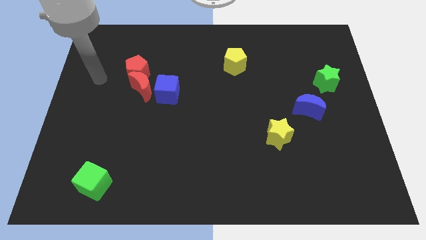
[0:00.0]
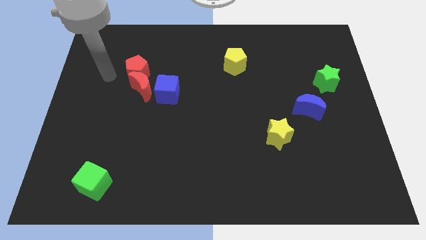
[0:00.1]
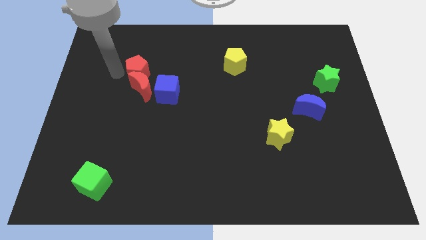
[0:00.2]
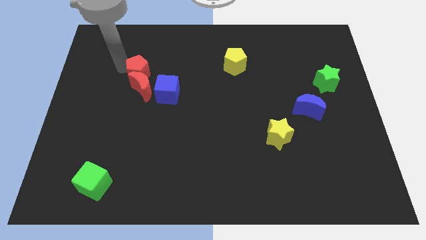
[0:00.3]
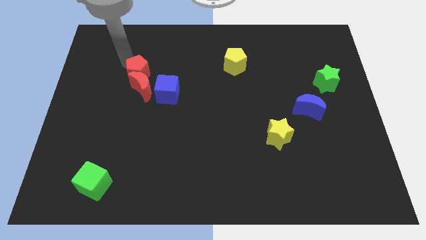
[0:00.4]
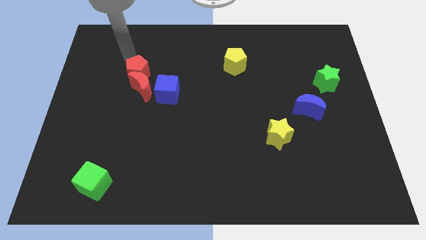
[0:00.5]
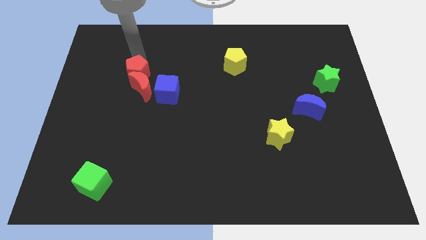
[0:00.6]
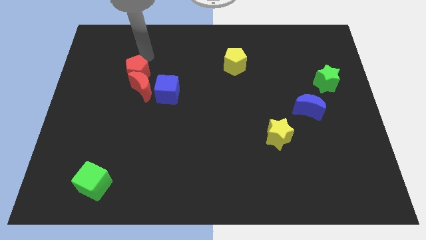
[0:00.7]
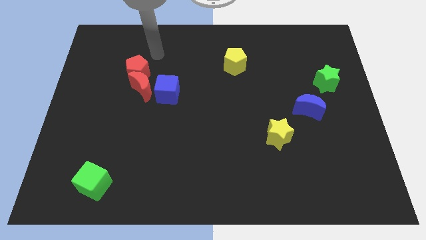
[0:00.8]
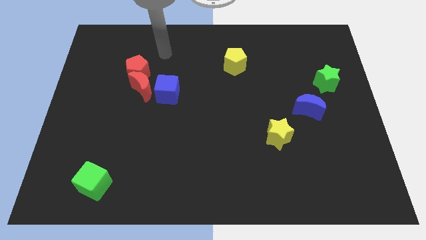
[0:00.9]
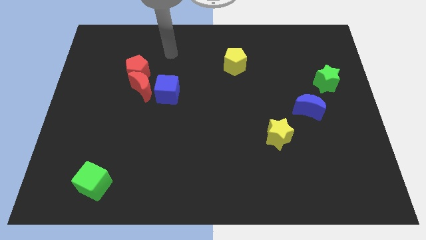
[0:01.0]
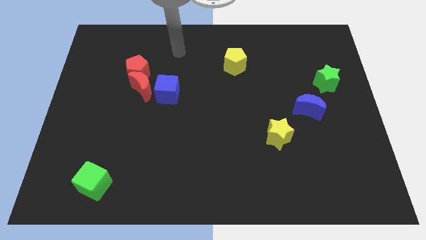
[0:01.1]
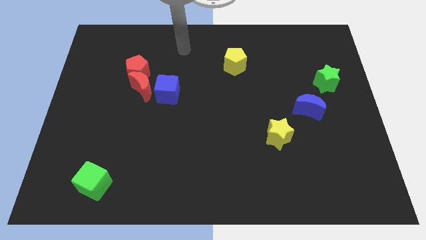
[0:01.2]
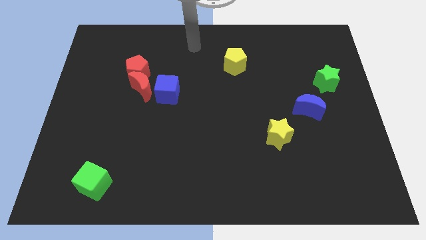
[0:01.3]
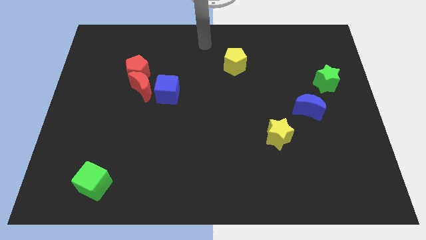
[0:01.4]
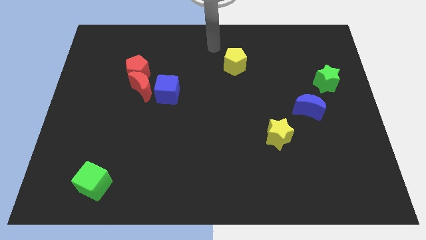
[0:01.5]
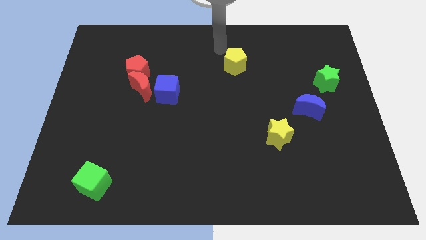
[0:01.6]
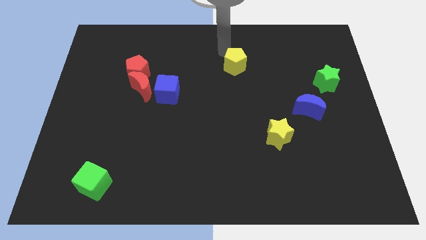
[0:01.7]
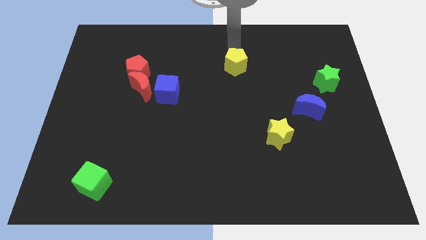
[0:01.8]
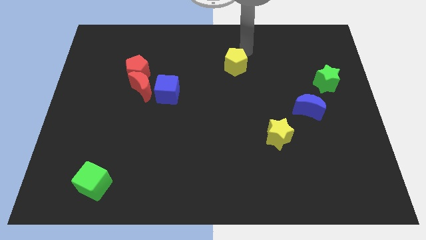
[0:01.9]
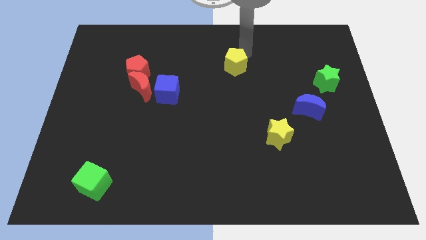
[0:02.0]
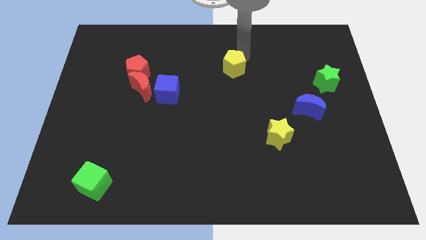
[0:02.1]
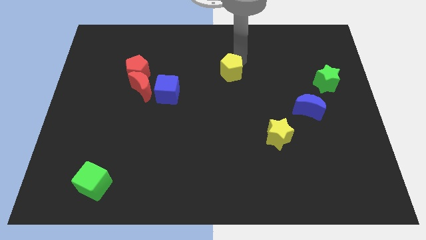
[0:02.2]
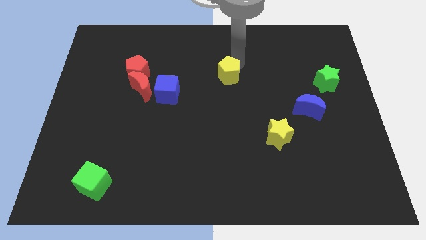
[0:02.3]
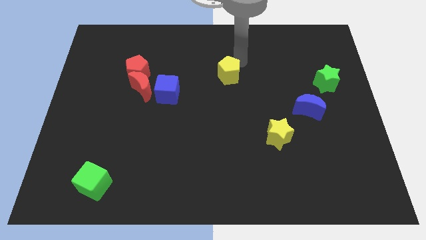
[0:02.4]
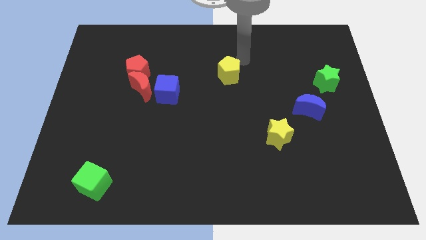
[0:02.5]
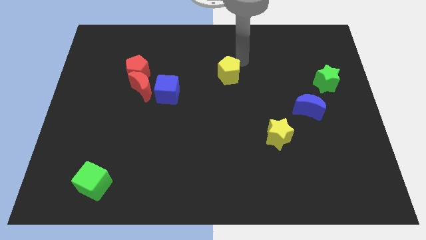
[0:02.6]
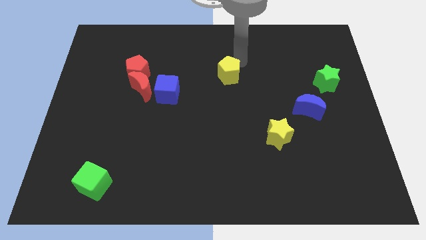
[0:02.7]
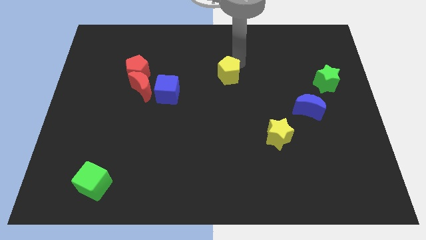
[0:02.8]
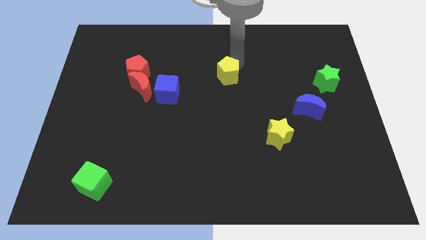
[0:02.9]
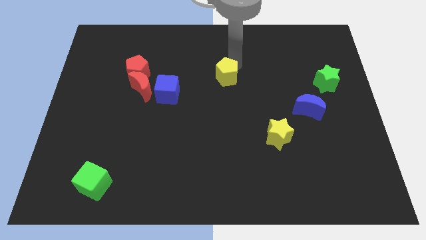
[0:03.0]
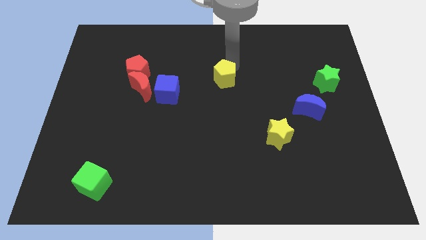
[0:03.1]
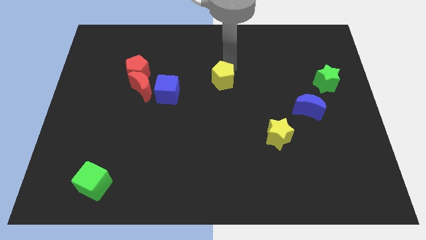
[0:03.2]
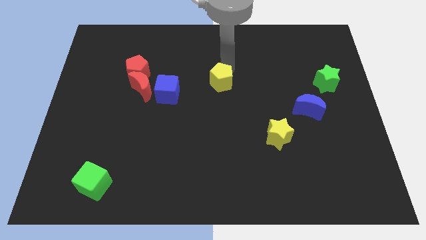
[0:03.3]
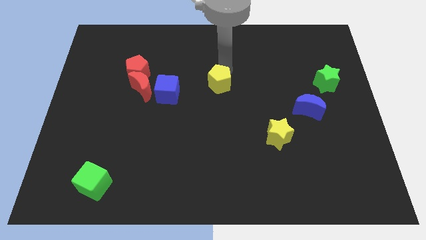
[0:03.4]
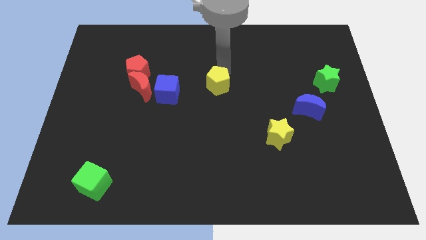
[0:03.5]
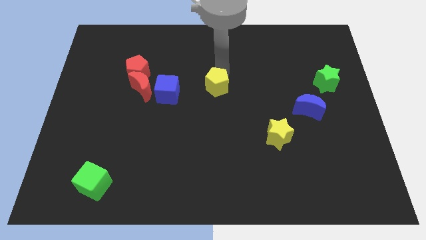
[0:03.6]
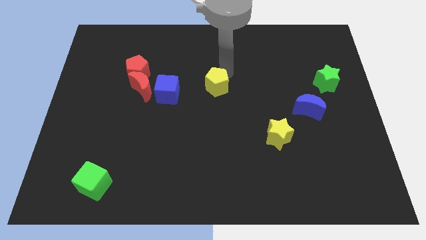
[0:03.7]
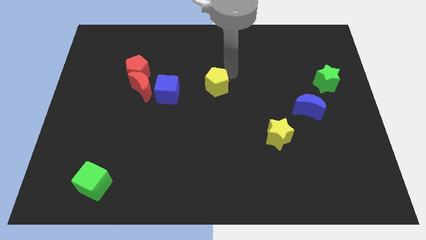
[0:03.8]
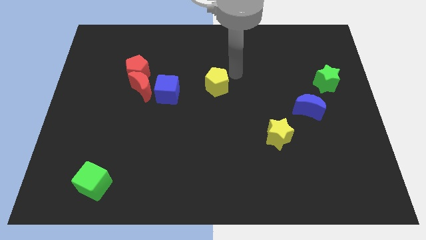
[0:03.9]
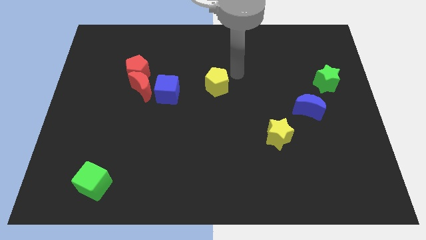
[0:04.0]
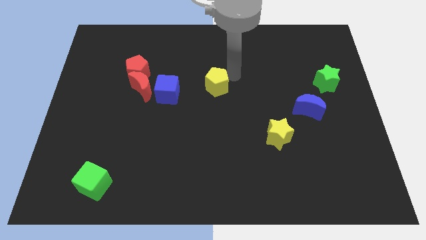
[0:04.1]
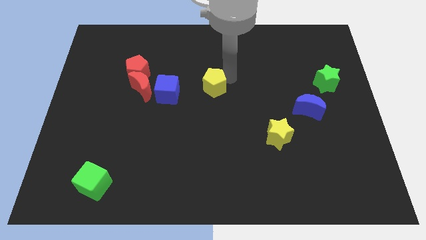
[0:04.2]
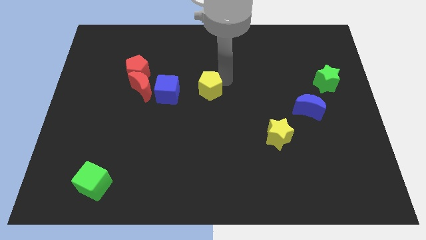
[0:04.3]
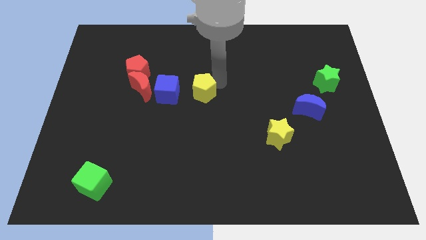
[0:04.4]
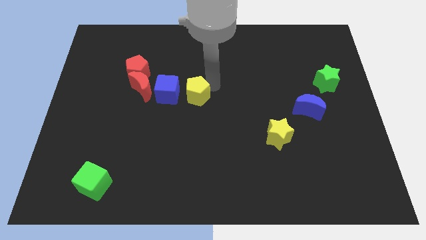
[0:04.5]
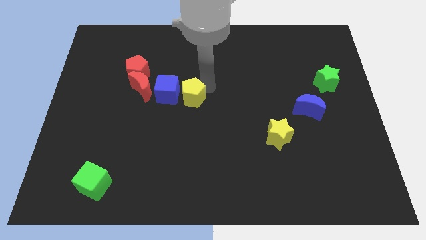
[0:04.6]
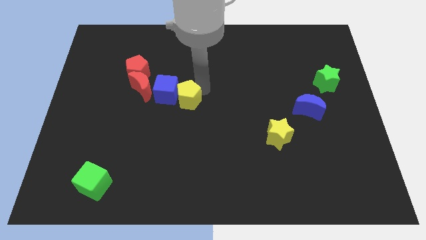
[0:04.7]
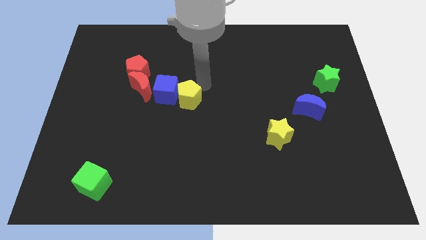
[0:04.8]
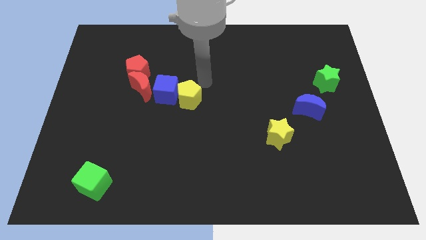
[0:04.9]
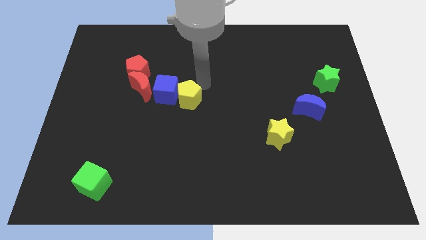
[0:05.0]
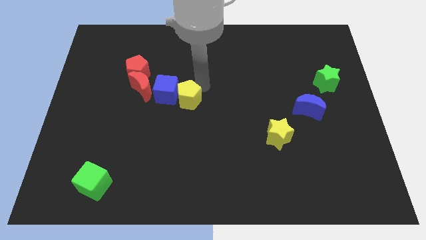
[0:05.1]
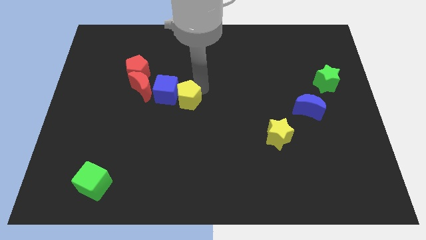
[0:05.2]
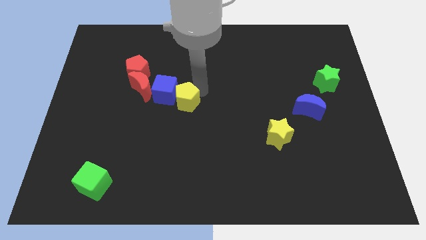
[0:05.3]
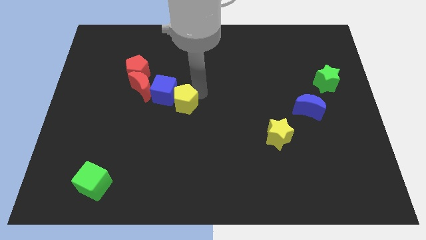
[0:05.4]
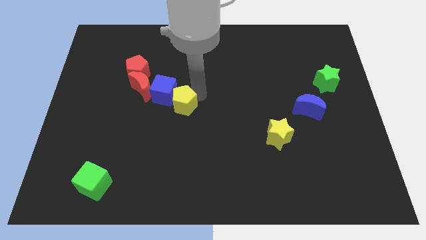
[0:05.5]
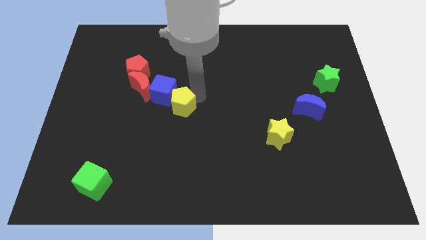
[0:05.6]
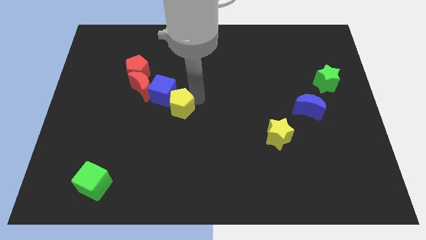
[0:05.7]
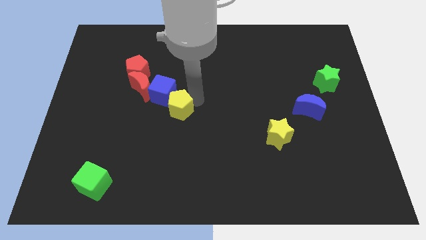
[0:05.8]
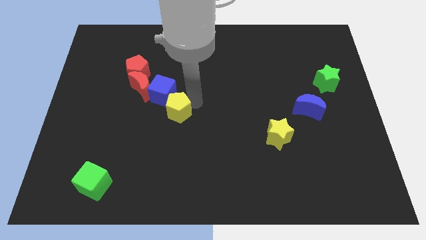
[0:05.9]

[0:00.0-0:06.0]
move the yellow pentagon downwards and left

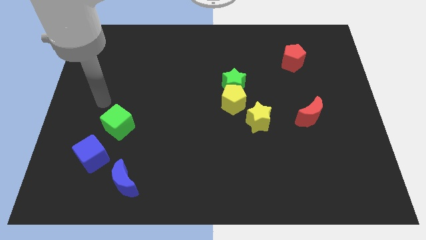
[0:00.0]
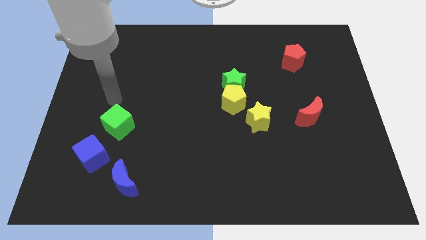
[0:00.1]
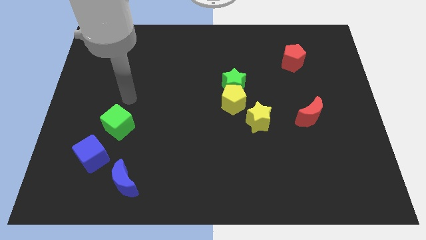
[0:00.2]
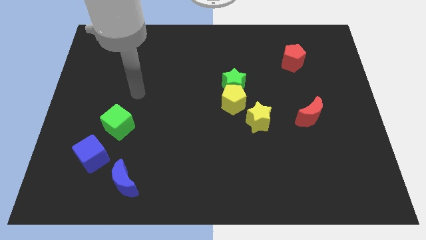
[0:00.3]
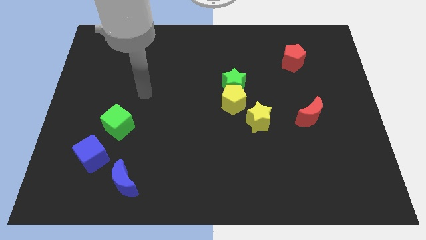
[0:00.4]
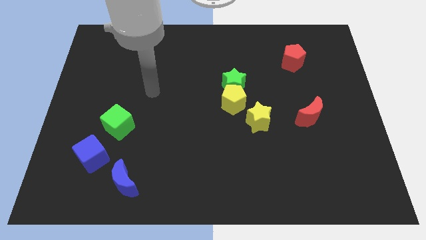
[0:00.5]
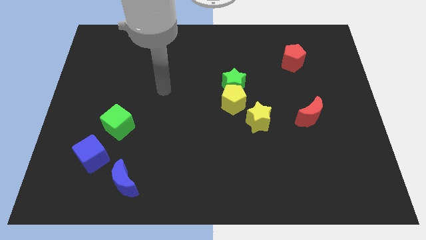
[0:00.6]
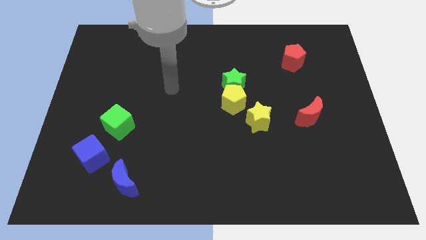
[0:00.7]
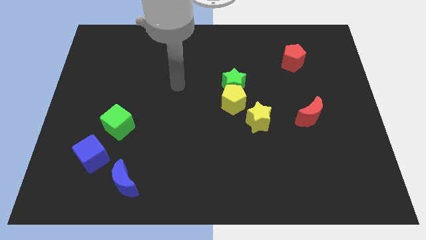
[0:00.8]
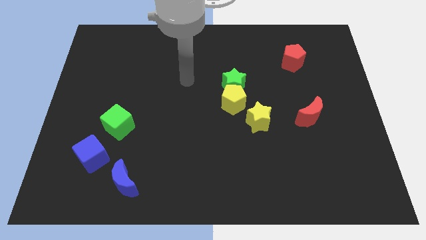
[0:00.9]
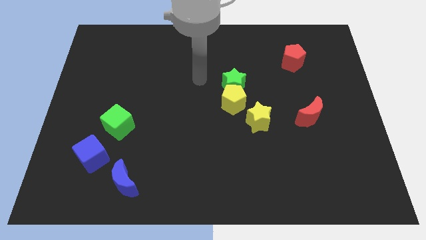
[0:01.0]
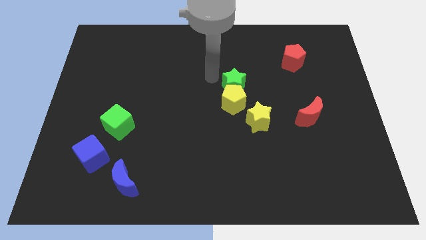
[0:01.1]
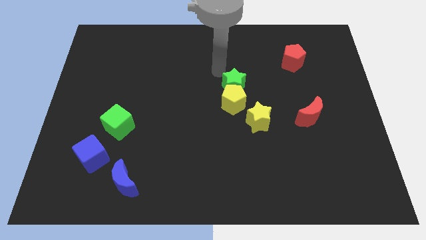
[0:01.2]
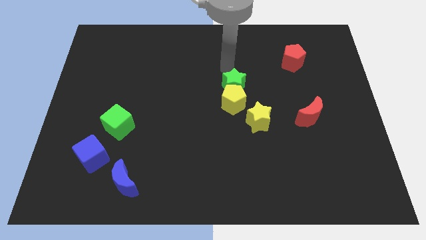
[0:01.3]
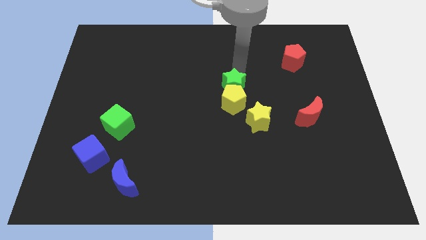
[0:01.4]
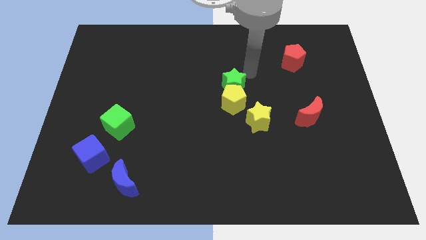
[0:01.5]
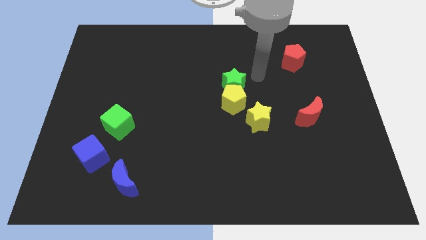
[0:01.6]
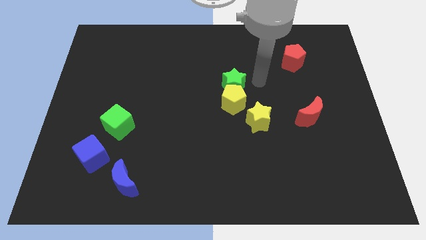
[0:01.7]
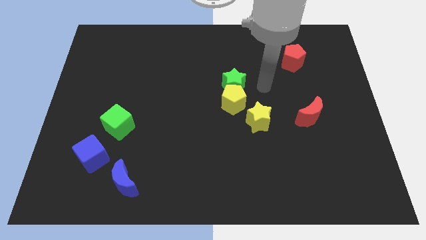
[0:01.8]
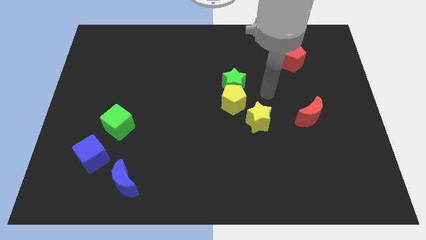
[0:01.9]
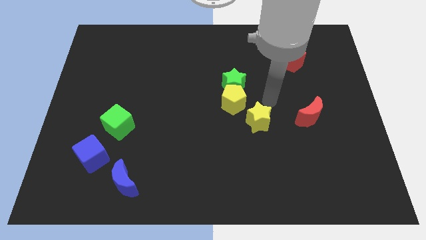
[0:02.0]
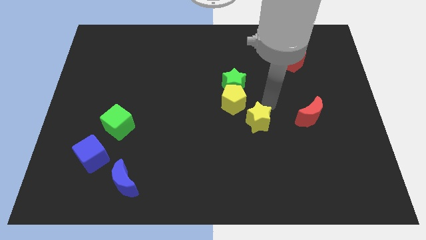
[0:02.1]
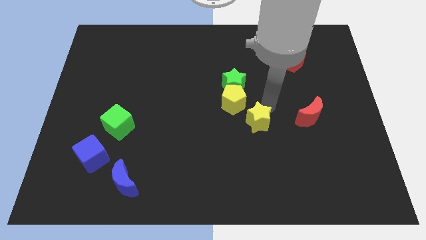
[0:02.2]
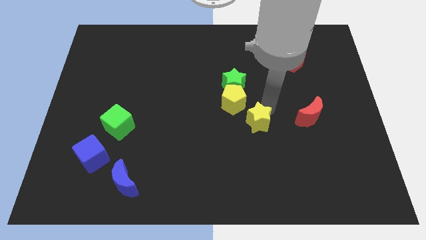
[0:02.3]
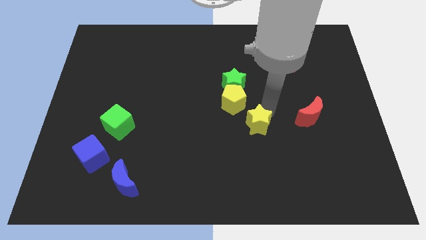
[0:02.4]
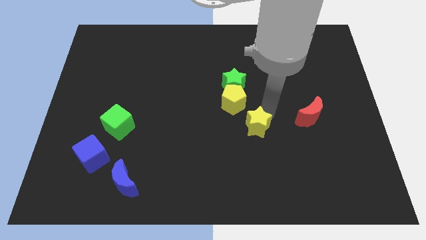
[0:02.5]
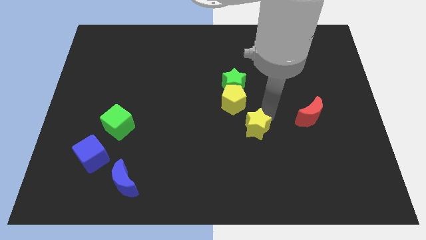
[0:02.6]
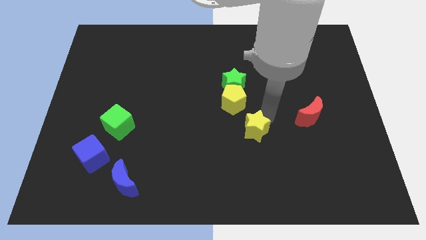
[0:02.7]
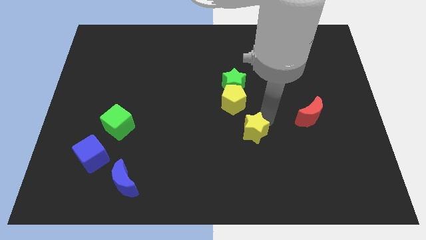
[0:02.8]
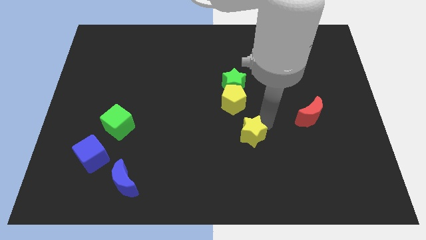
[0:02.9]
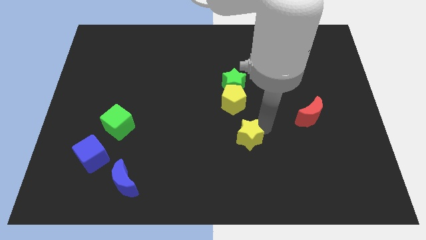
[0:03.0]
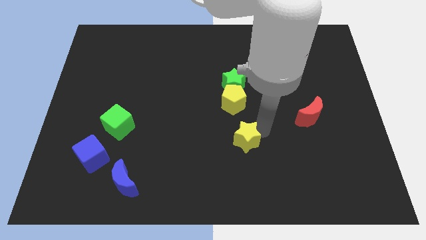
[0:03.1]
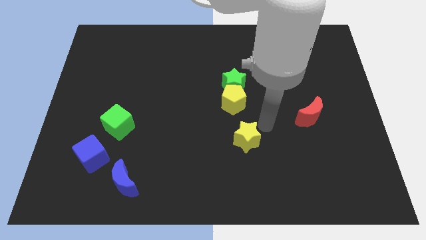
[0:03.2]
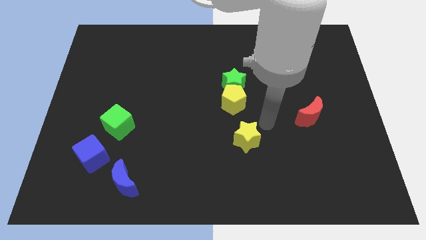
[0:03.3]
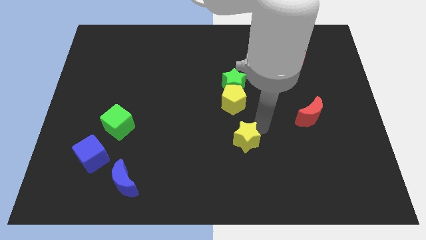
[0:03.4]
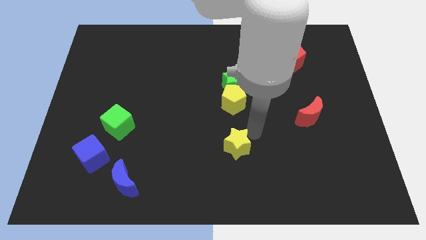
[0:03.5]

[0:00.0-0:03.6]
move the yellow star a little downwards and then left
